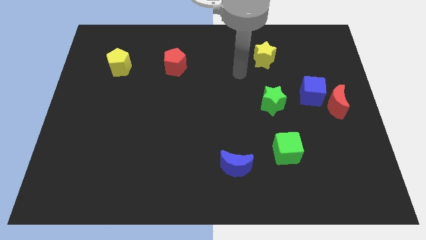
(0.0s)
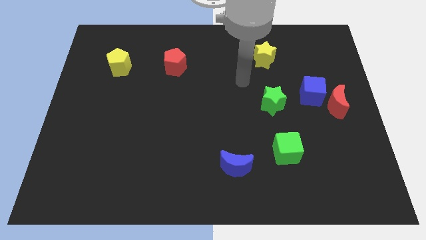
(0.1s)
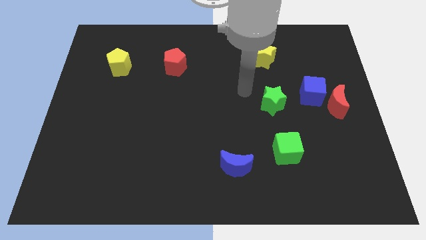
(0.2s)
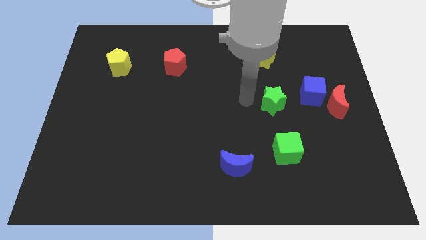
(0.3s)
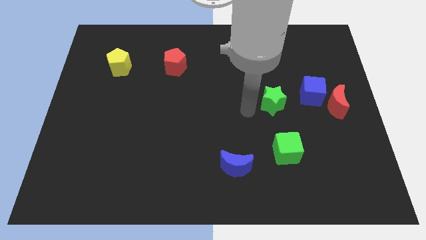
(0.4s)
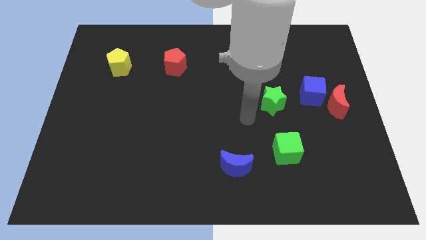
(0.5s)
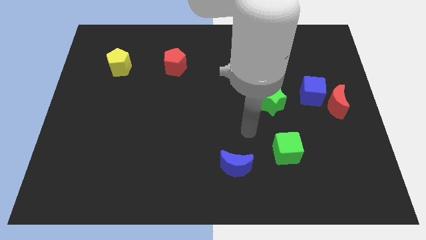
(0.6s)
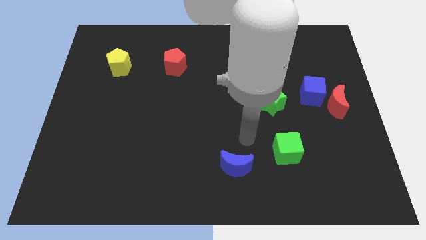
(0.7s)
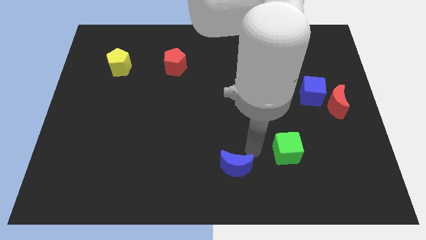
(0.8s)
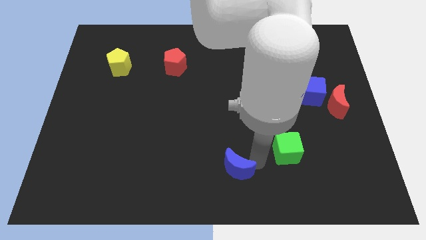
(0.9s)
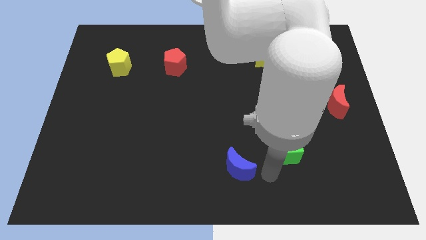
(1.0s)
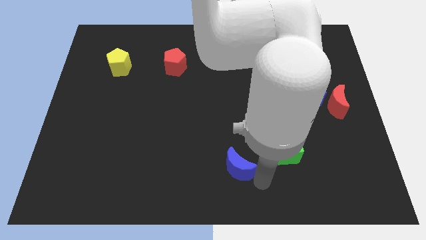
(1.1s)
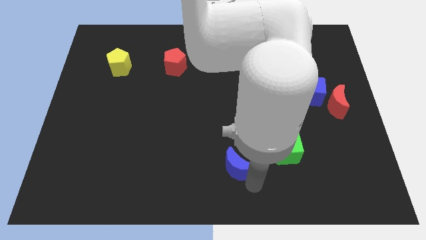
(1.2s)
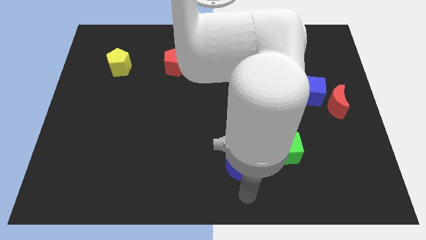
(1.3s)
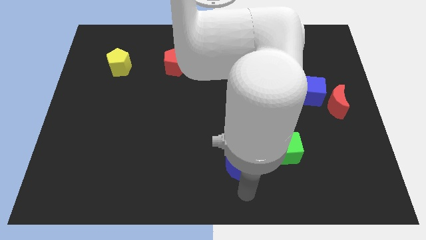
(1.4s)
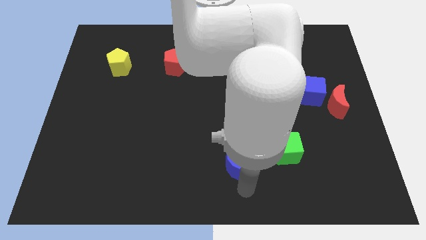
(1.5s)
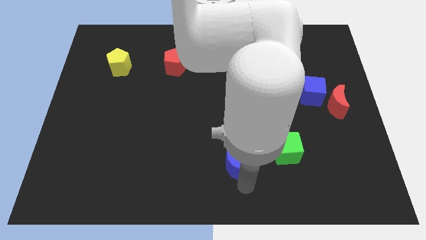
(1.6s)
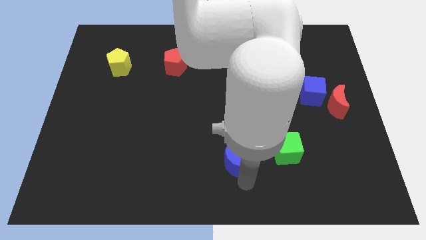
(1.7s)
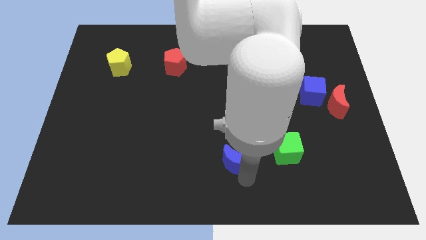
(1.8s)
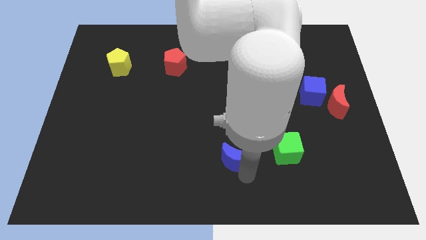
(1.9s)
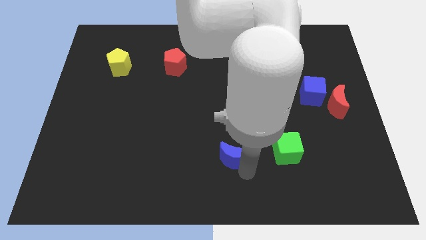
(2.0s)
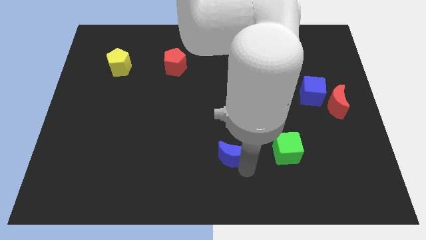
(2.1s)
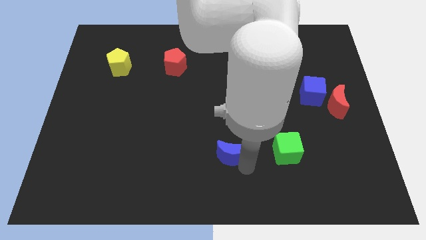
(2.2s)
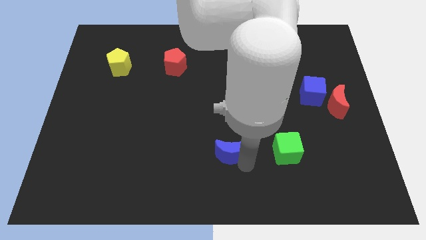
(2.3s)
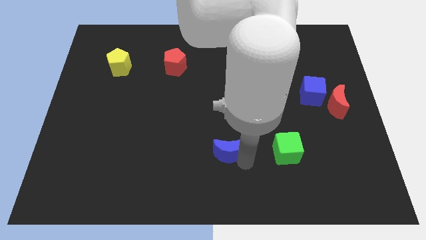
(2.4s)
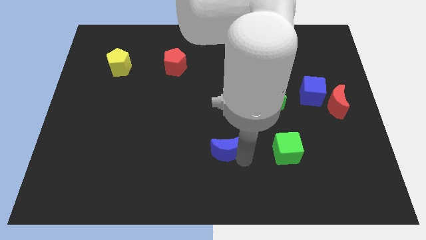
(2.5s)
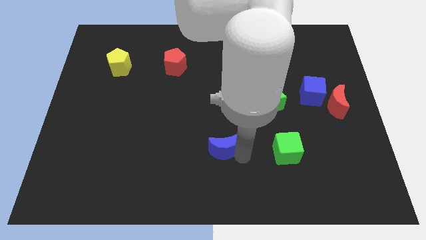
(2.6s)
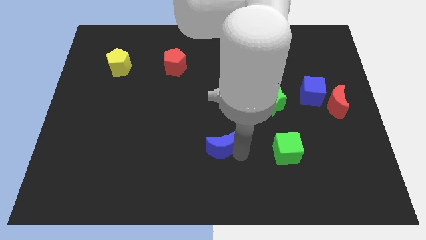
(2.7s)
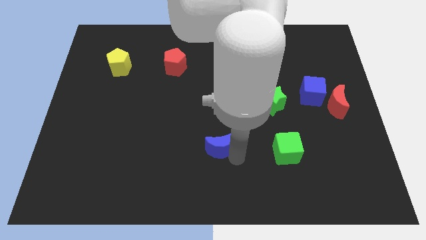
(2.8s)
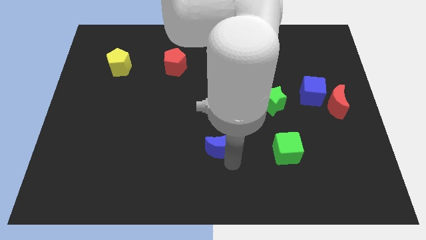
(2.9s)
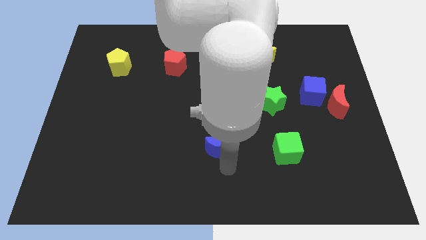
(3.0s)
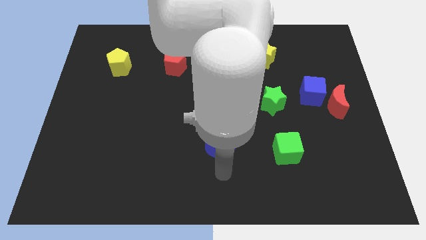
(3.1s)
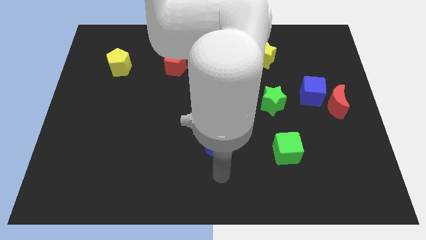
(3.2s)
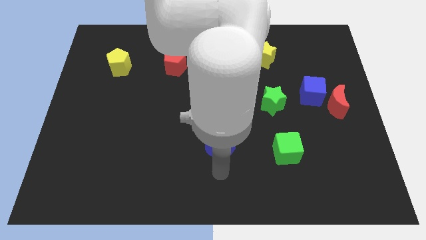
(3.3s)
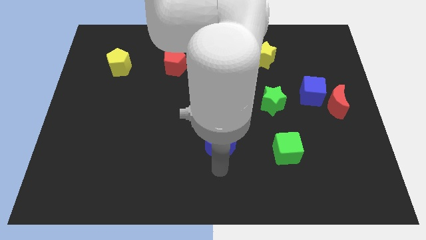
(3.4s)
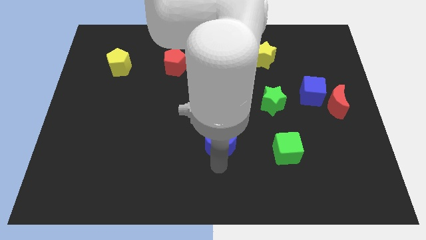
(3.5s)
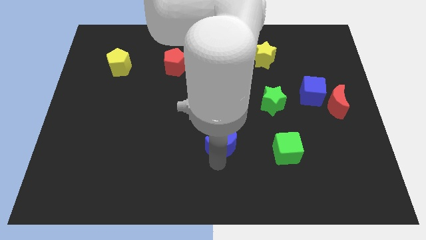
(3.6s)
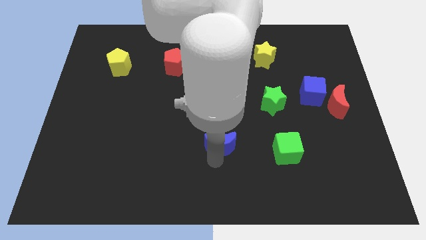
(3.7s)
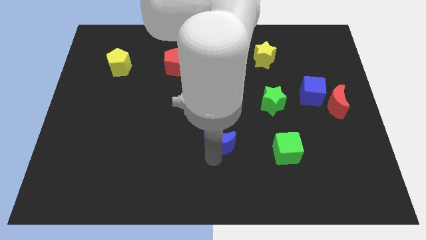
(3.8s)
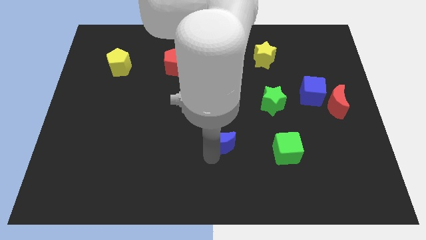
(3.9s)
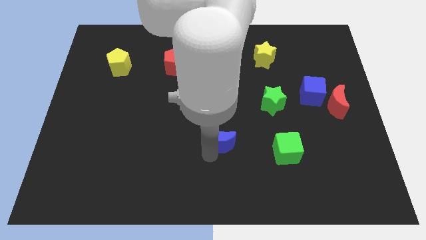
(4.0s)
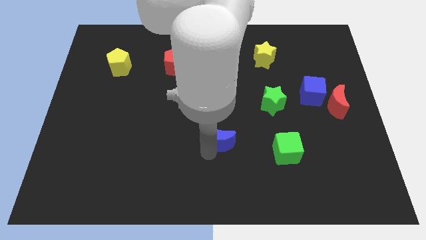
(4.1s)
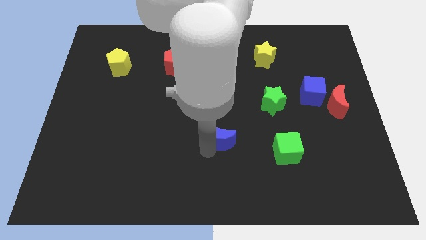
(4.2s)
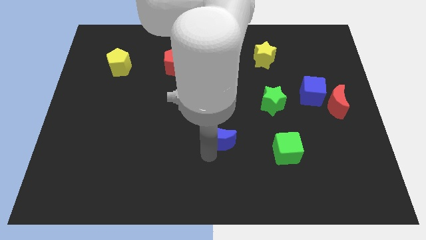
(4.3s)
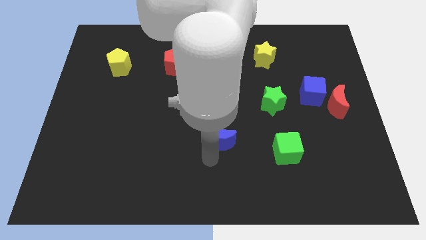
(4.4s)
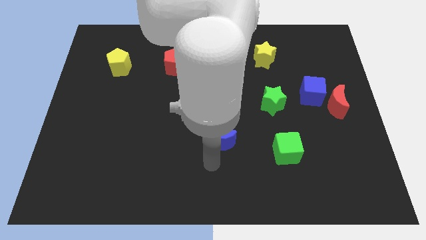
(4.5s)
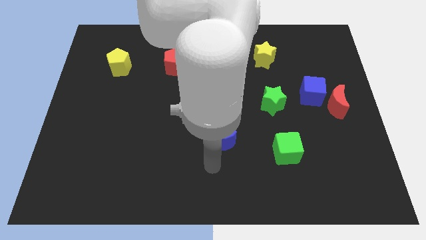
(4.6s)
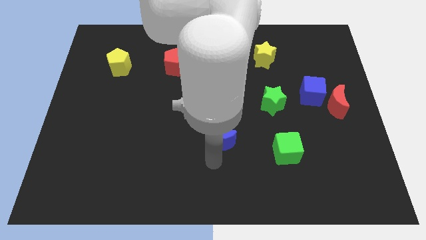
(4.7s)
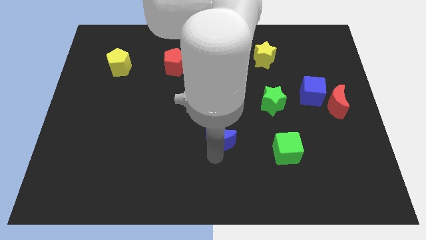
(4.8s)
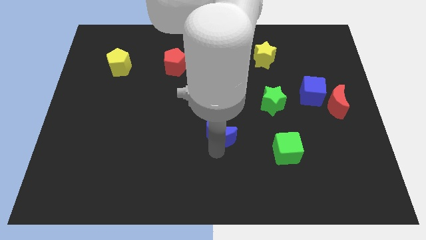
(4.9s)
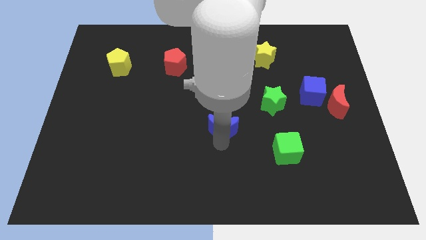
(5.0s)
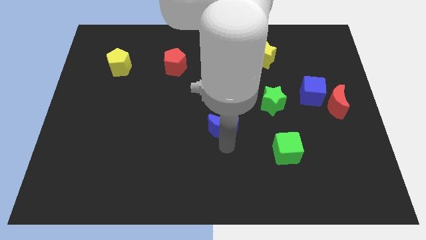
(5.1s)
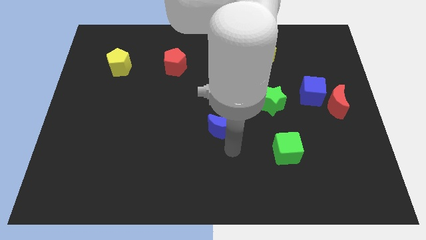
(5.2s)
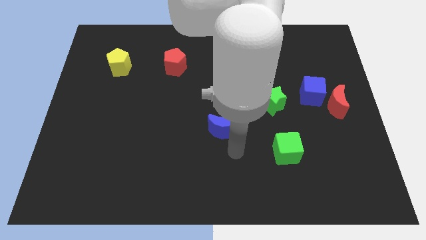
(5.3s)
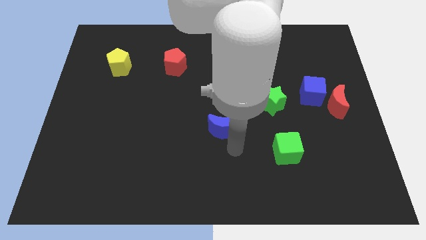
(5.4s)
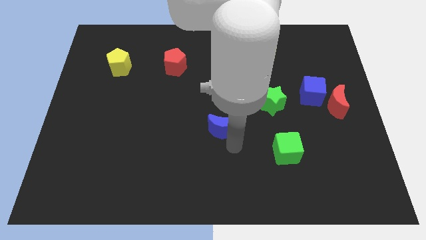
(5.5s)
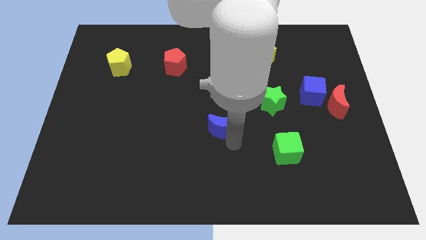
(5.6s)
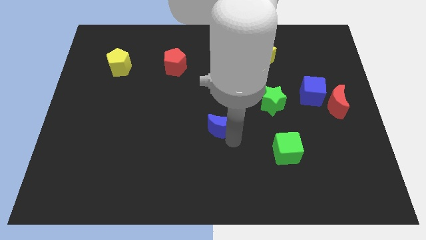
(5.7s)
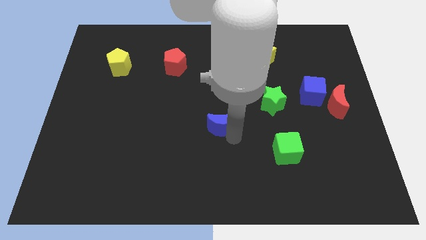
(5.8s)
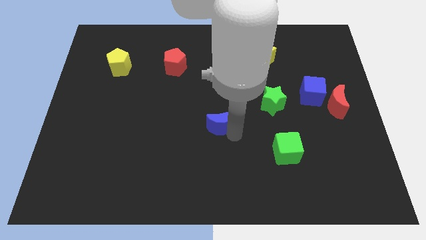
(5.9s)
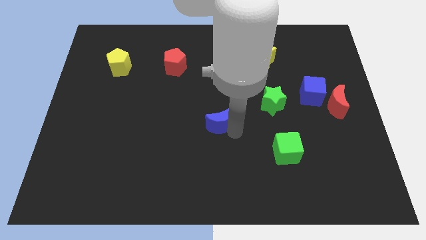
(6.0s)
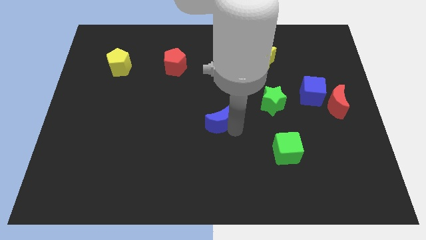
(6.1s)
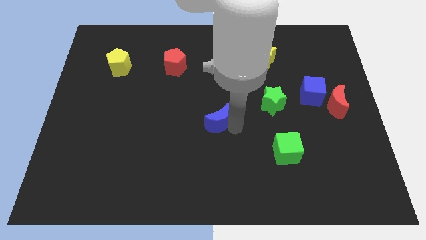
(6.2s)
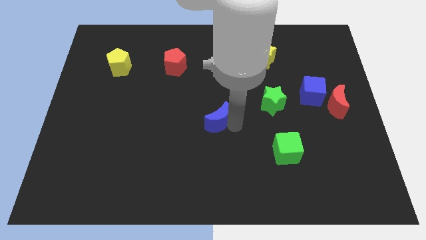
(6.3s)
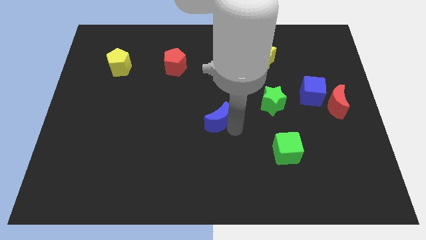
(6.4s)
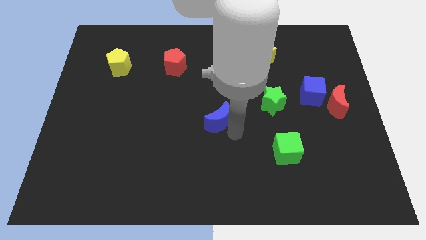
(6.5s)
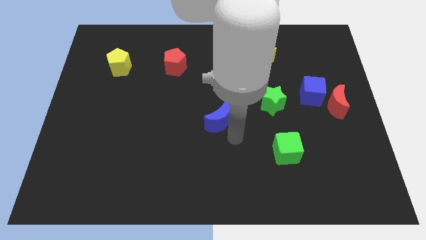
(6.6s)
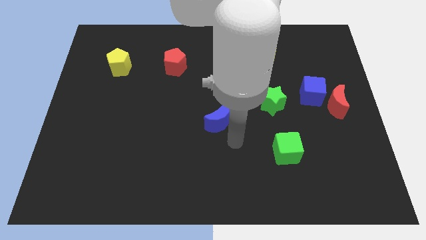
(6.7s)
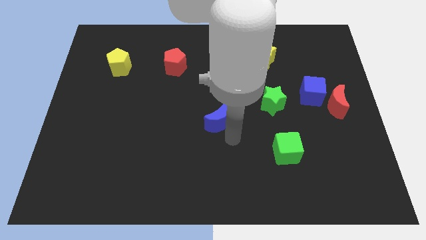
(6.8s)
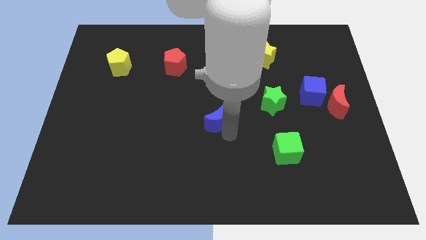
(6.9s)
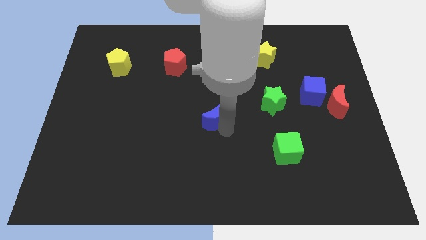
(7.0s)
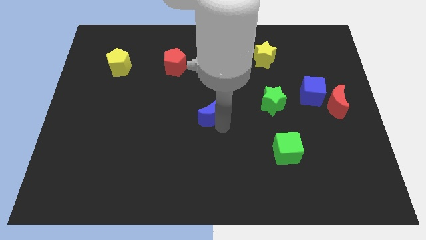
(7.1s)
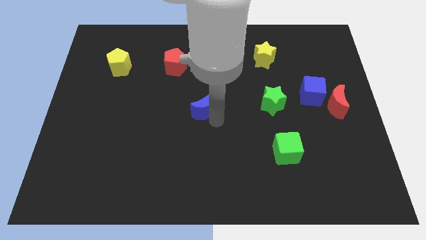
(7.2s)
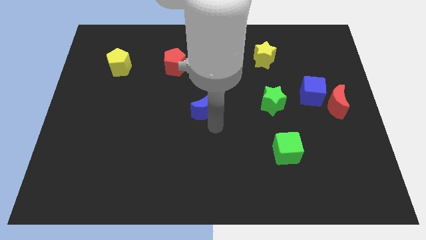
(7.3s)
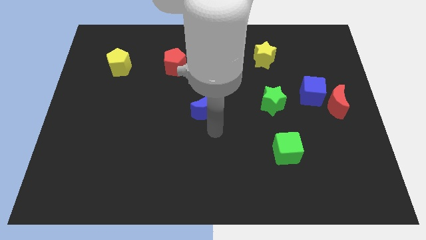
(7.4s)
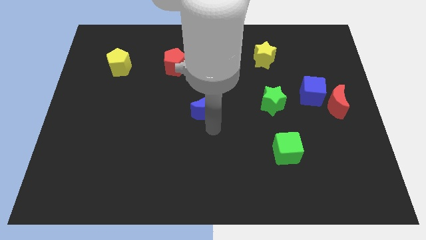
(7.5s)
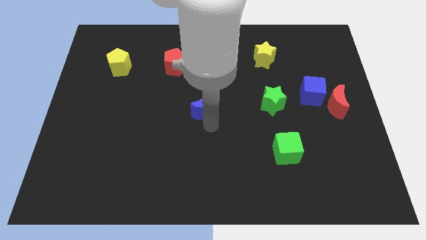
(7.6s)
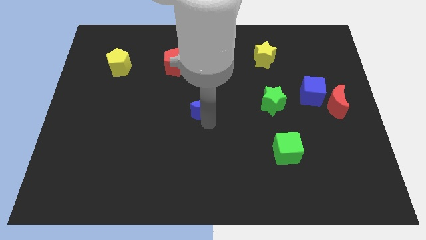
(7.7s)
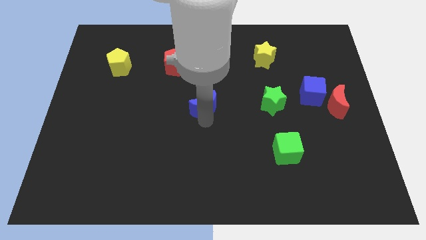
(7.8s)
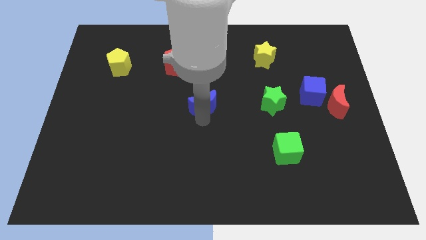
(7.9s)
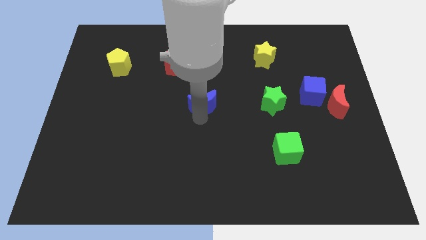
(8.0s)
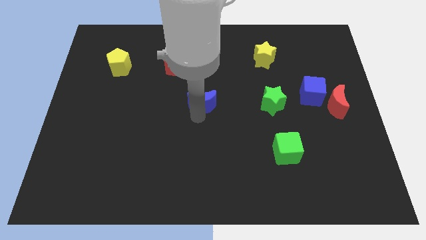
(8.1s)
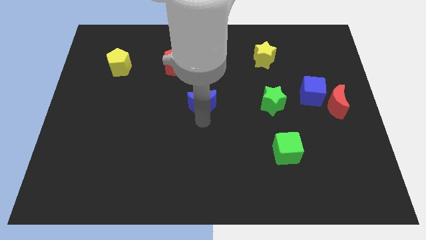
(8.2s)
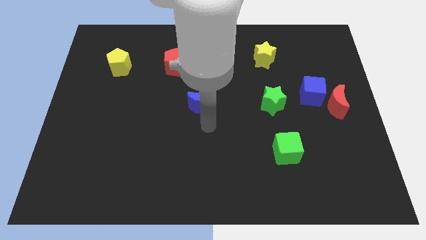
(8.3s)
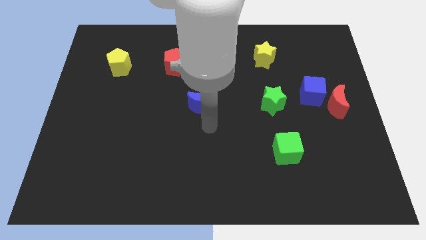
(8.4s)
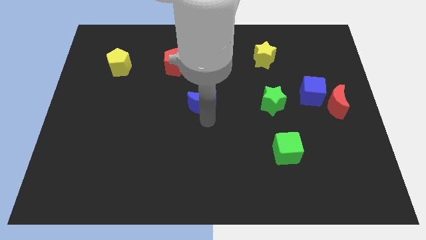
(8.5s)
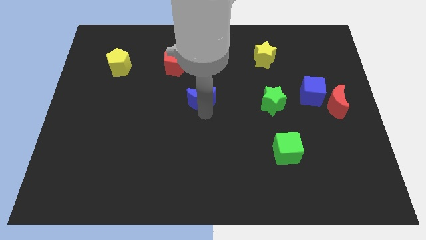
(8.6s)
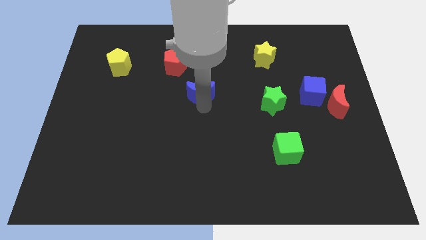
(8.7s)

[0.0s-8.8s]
move the blue moon to the bottom right of the red pentagon
